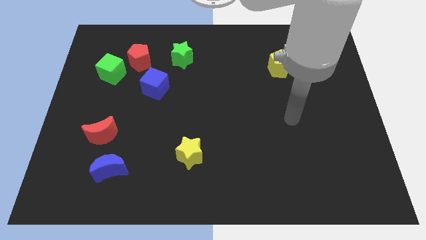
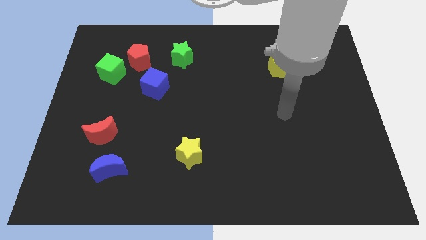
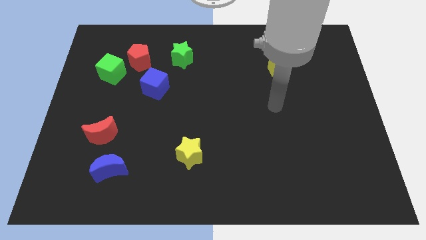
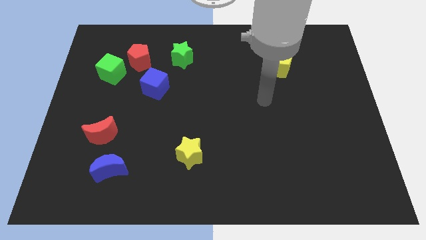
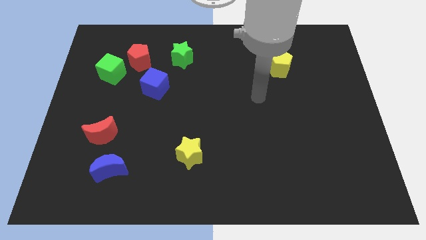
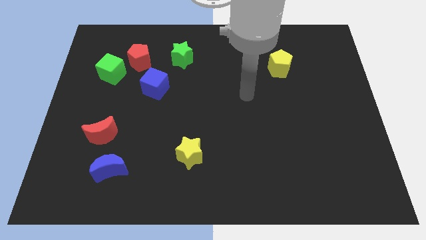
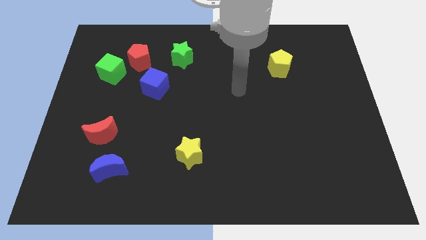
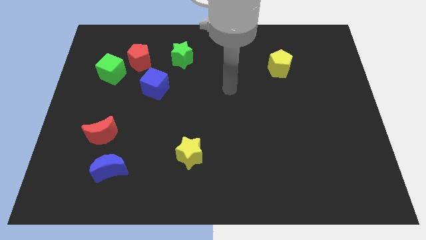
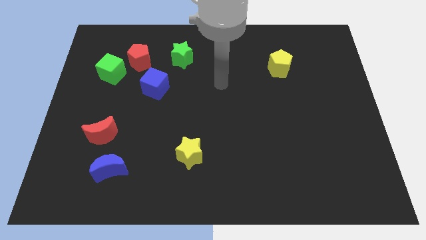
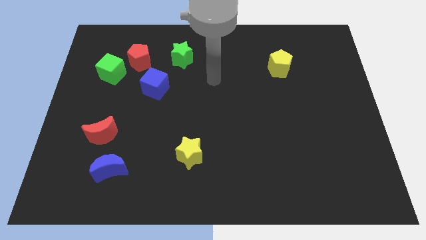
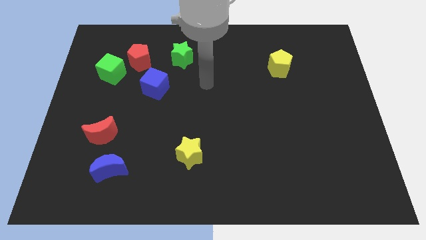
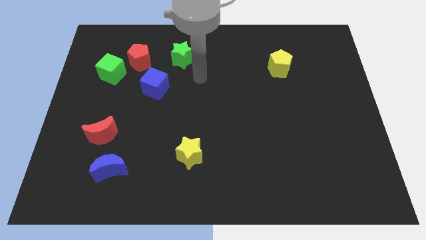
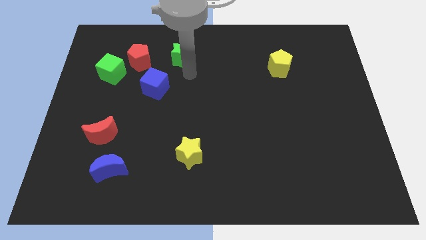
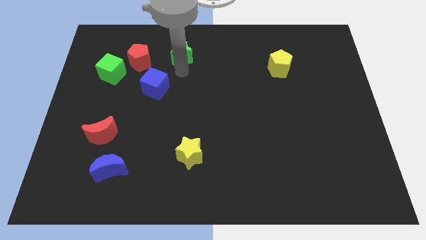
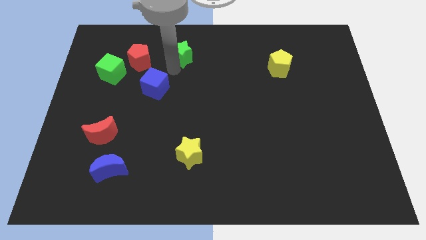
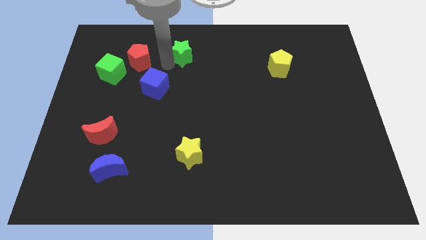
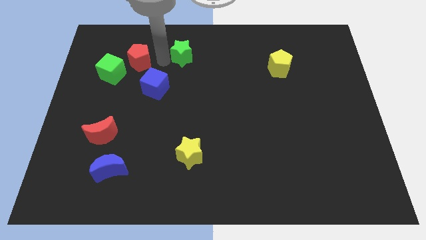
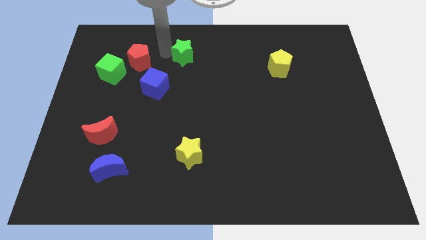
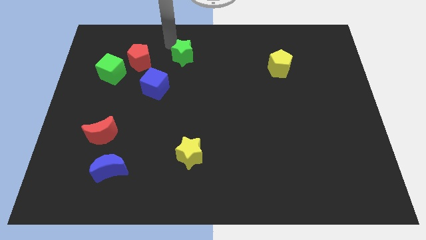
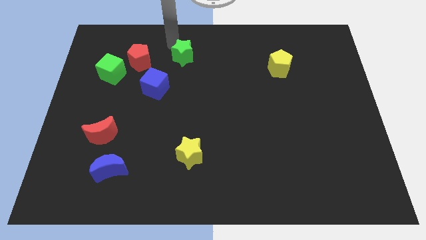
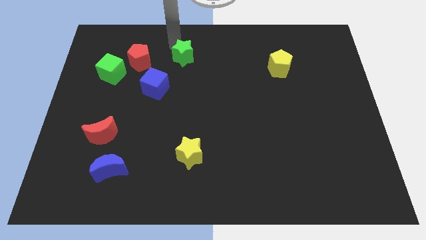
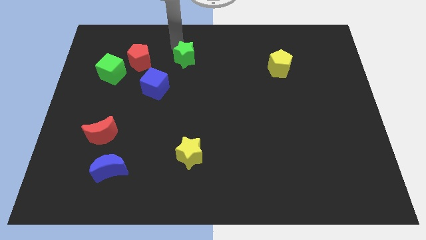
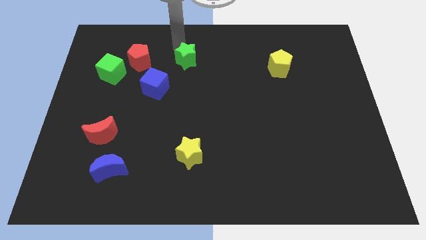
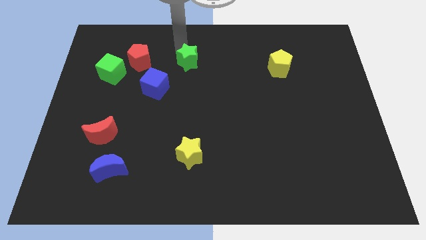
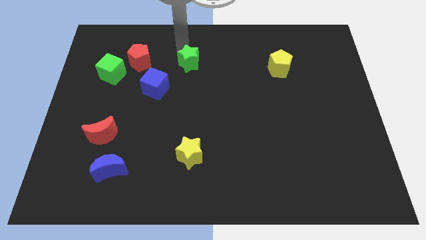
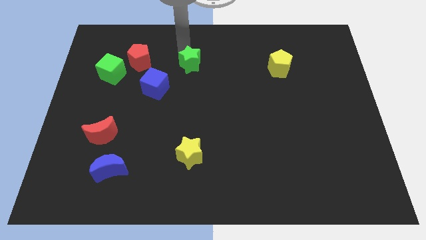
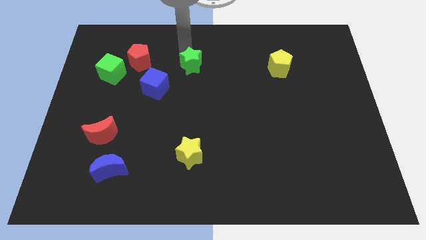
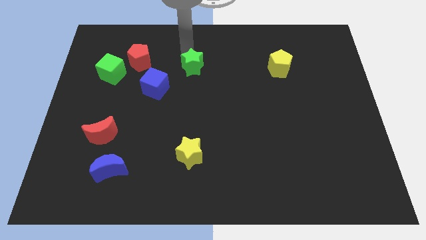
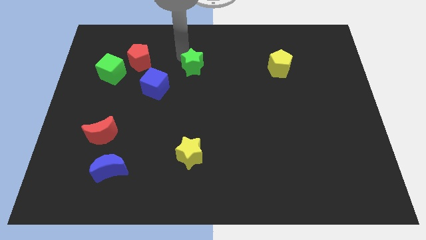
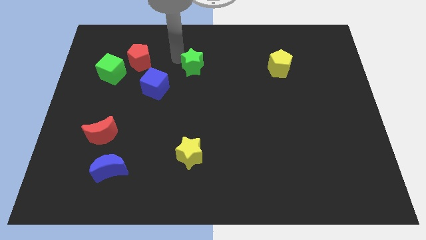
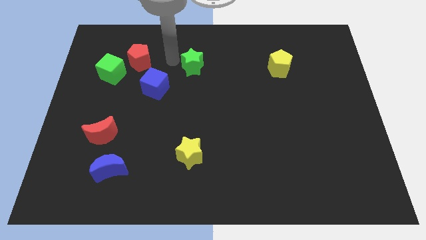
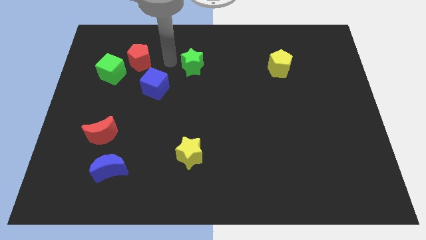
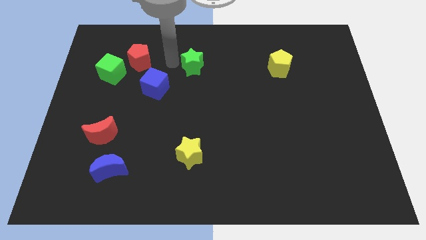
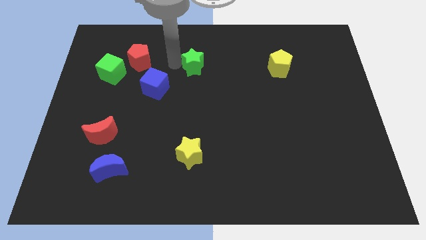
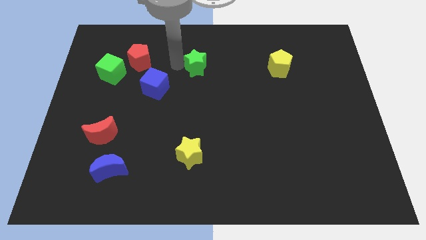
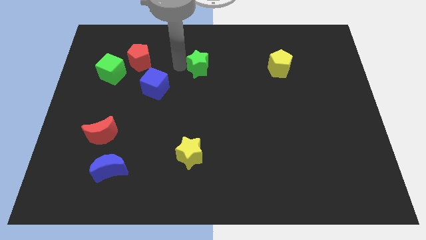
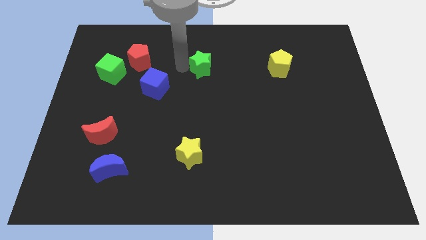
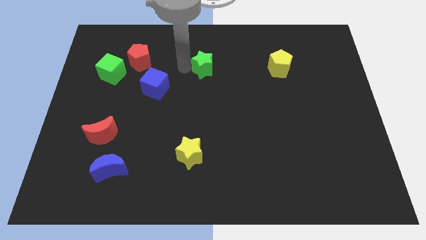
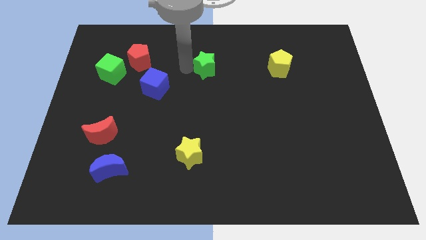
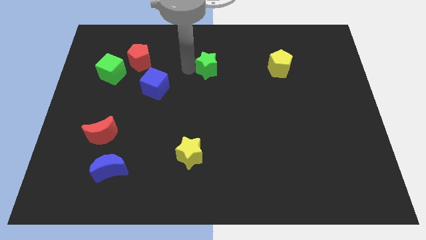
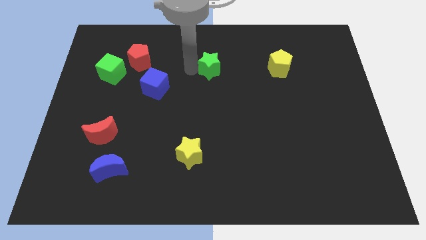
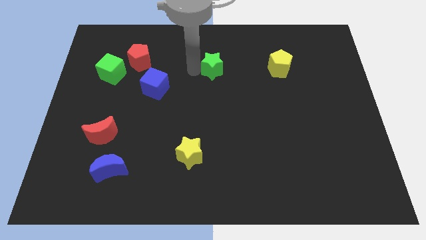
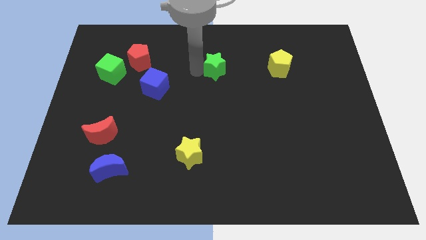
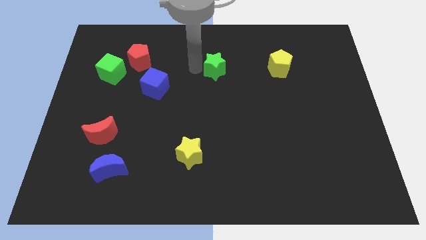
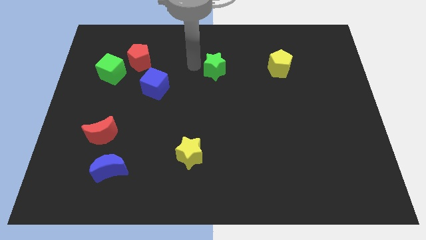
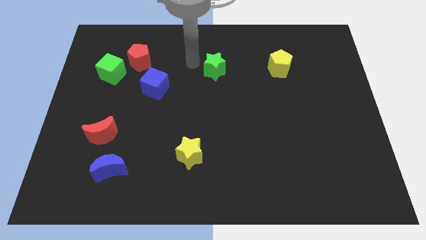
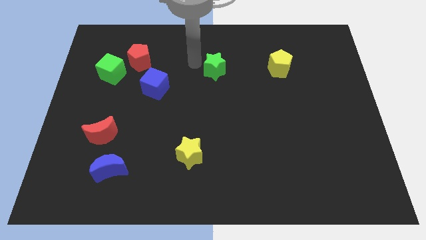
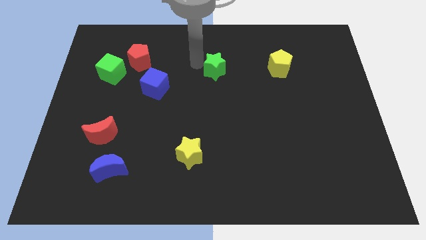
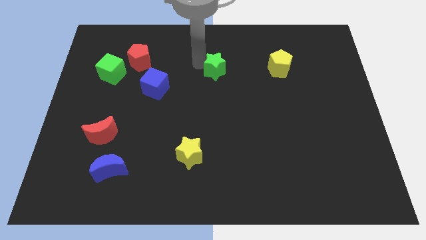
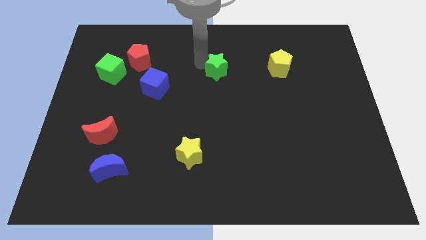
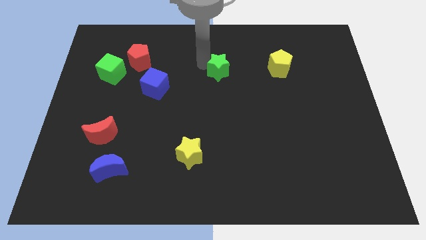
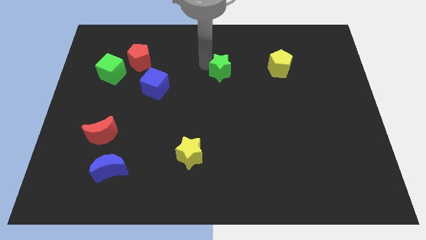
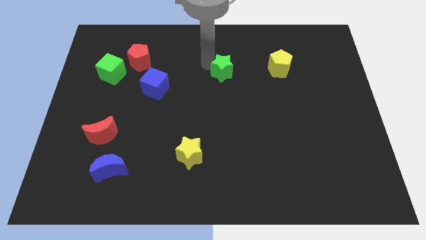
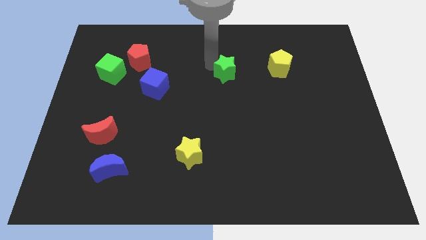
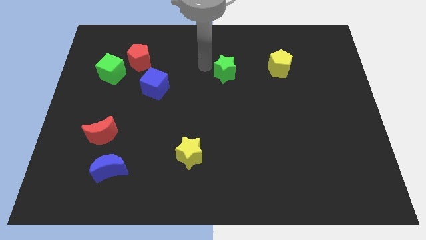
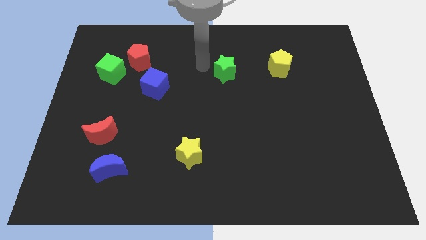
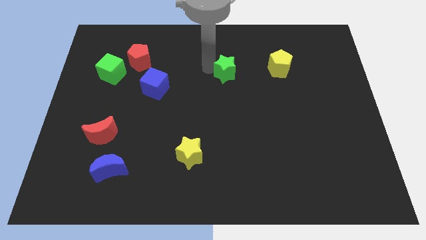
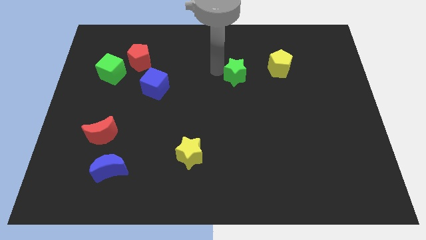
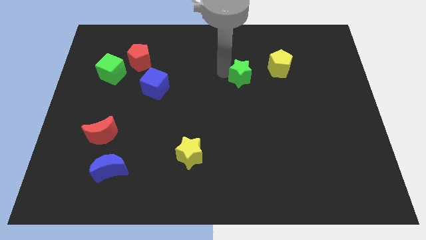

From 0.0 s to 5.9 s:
move the green star to the bottom left side of the yellow pentagon

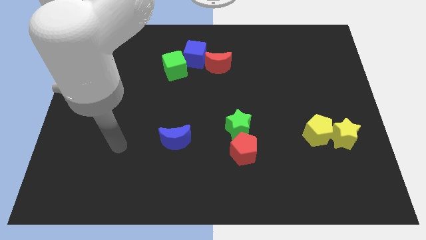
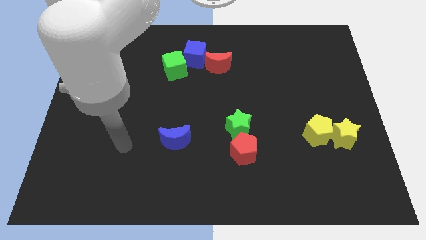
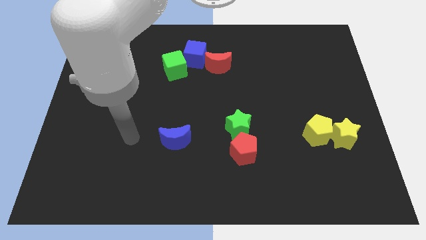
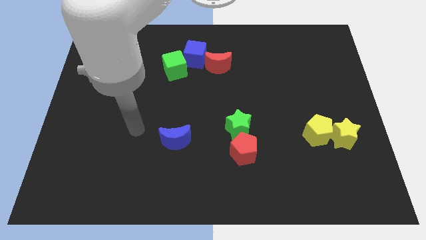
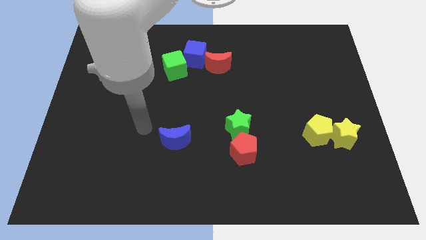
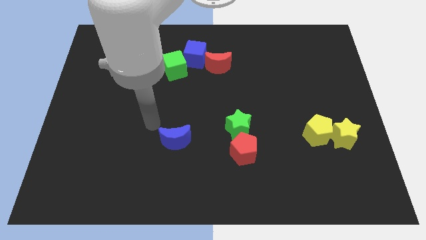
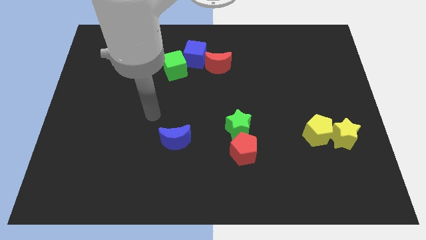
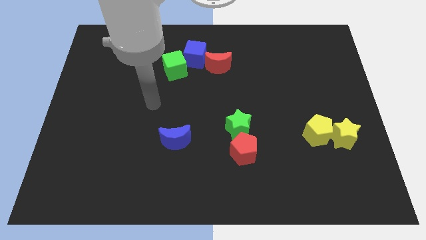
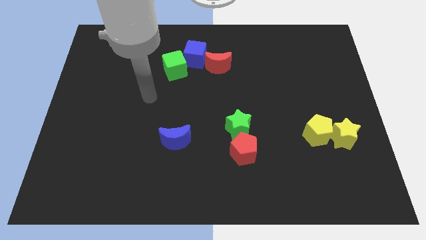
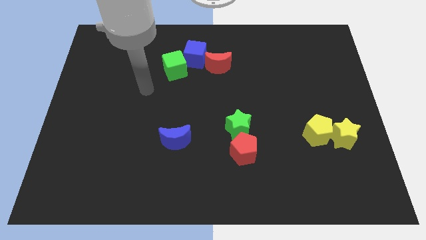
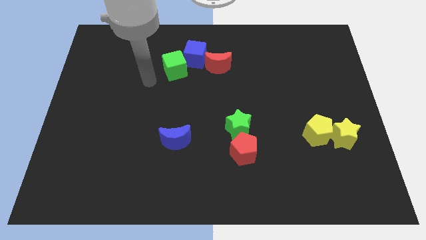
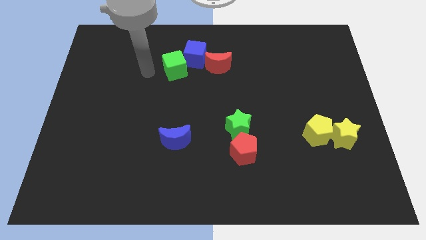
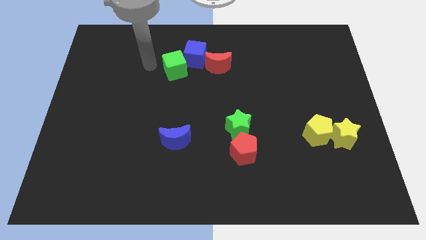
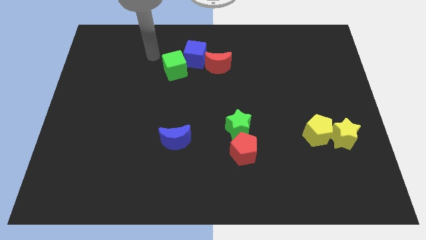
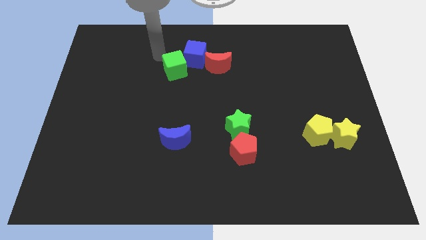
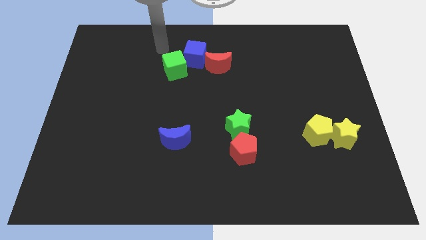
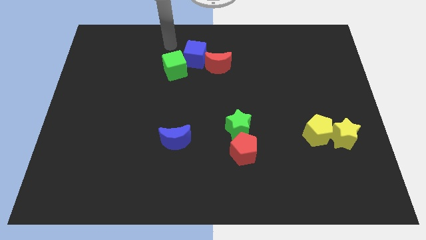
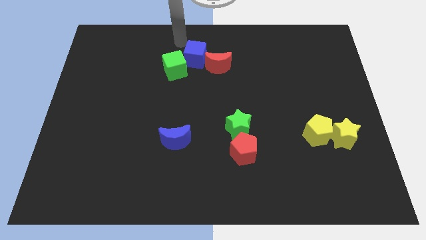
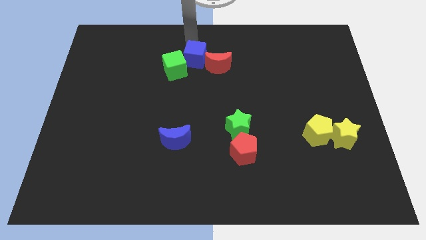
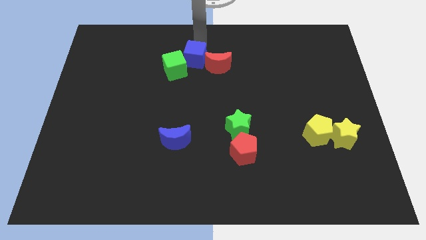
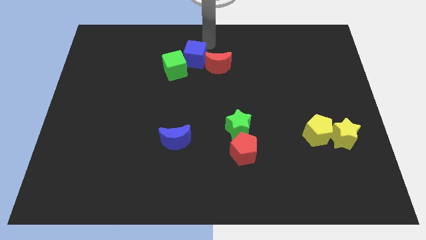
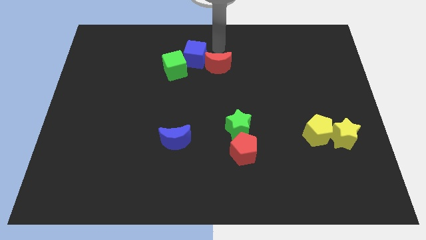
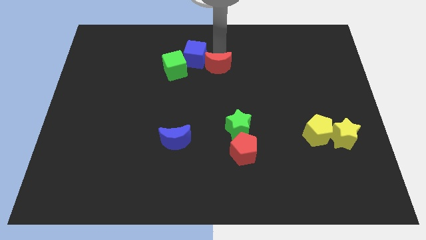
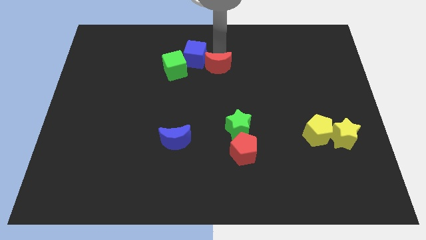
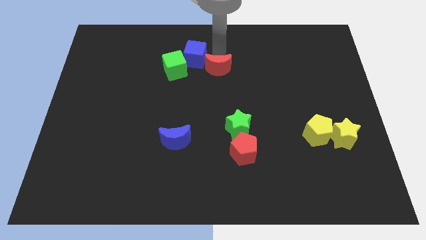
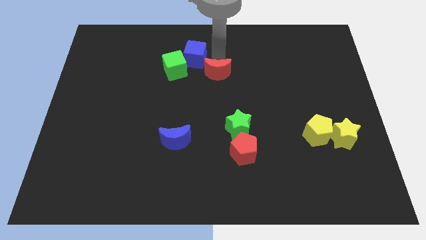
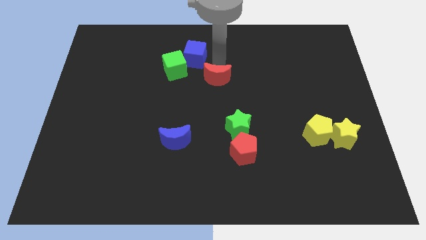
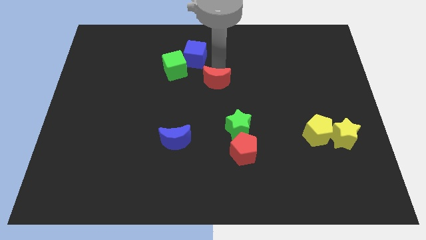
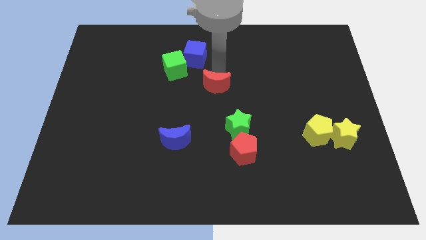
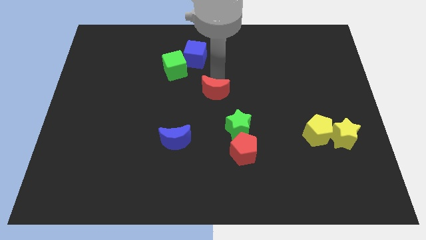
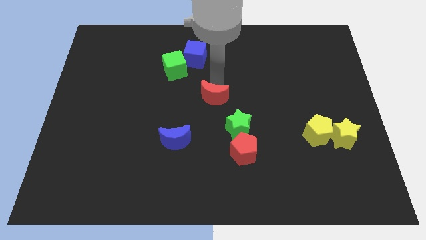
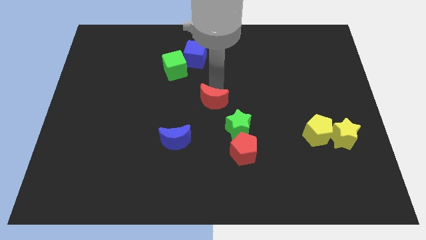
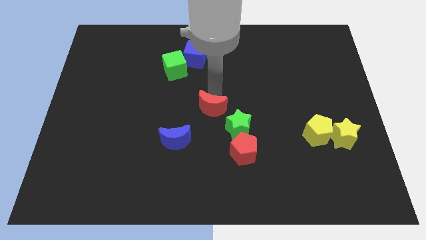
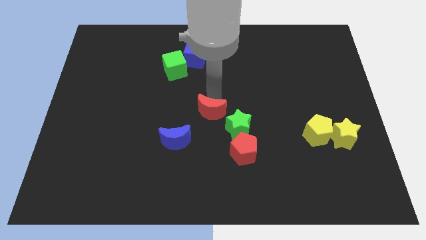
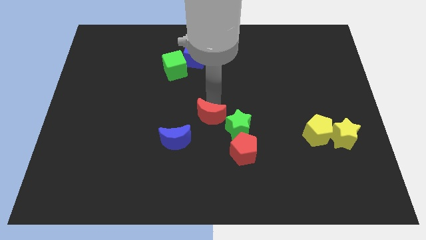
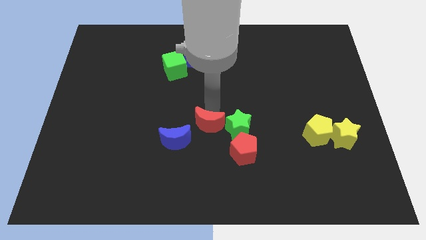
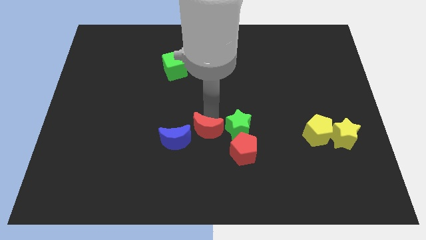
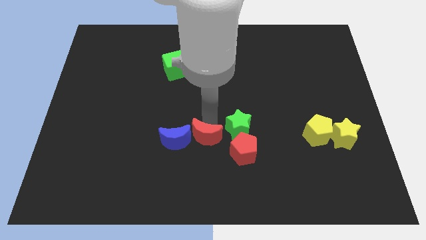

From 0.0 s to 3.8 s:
push the red moon to the left side of the red pentagon
